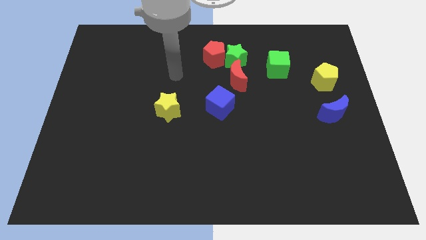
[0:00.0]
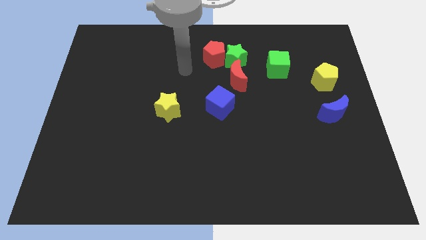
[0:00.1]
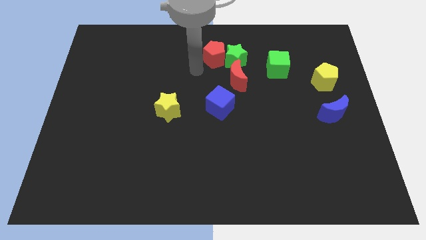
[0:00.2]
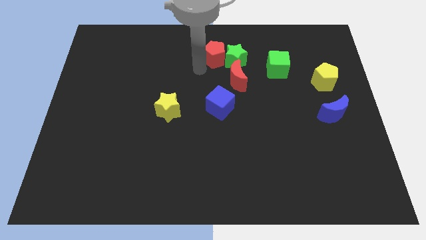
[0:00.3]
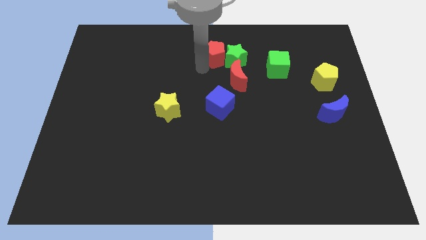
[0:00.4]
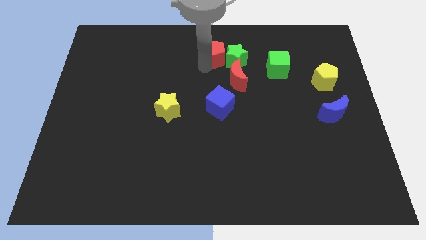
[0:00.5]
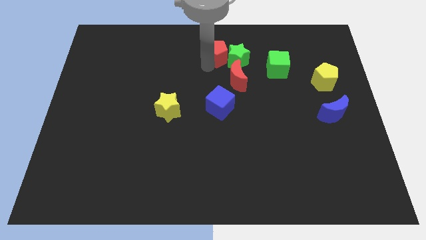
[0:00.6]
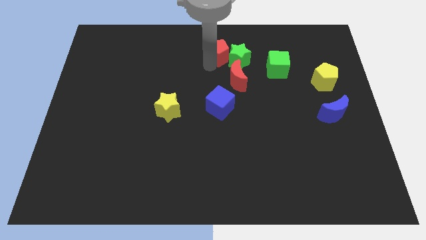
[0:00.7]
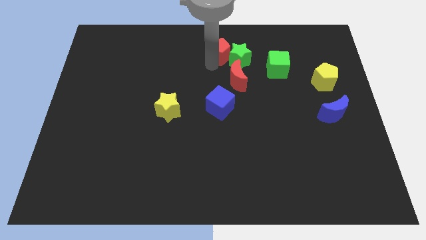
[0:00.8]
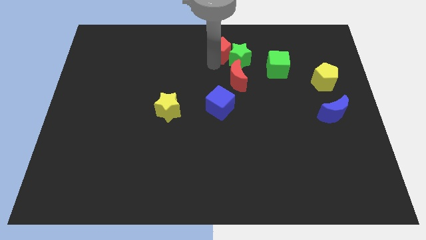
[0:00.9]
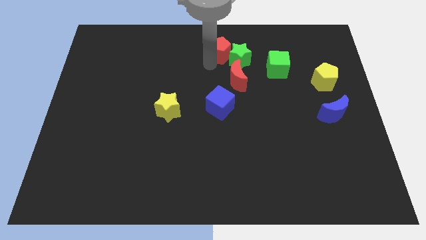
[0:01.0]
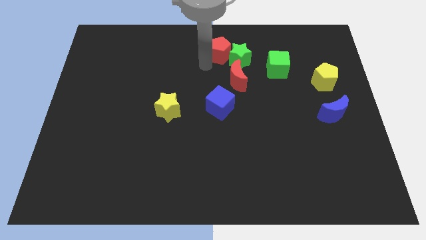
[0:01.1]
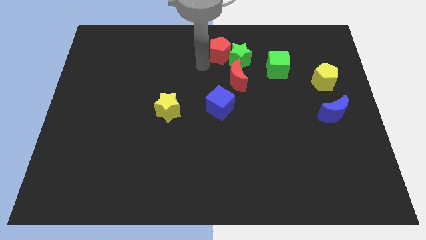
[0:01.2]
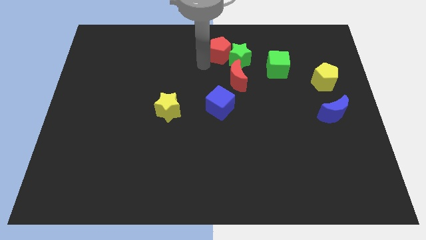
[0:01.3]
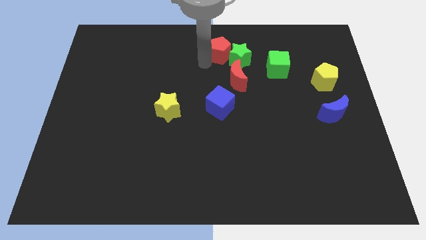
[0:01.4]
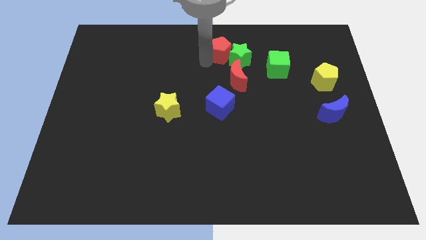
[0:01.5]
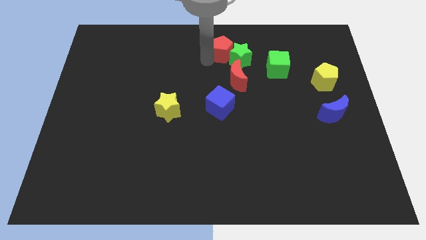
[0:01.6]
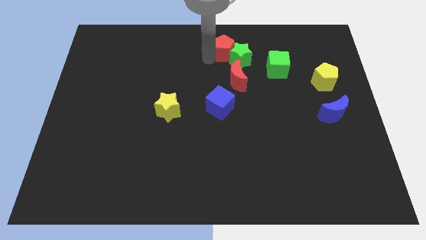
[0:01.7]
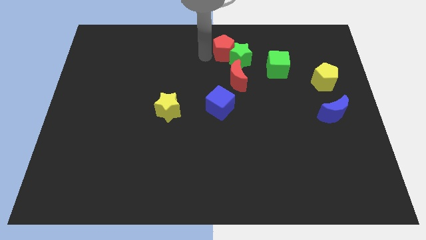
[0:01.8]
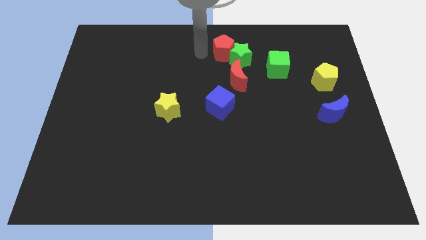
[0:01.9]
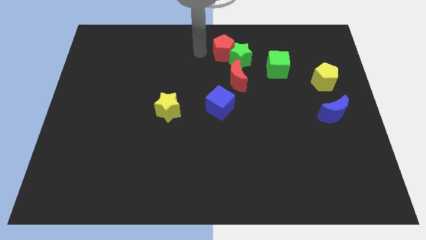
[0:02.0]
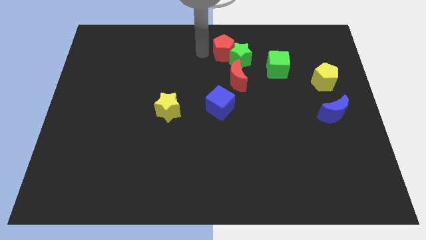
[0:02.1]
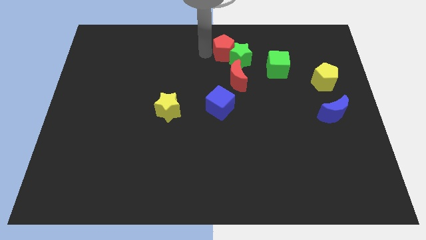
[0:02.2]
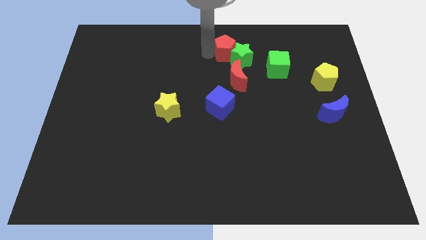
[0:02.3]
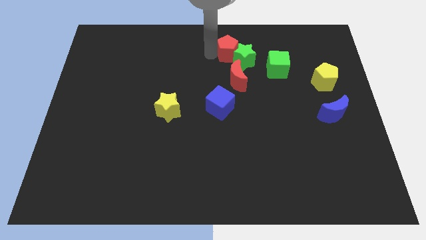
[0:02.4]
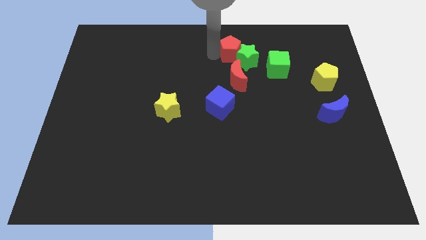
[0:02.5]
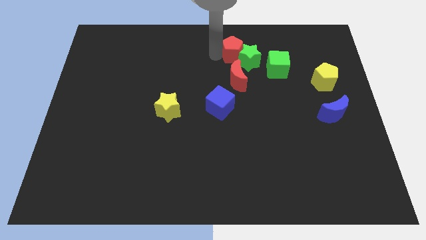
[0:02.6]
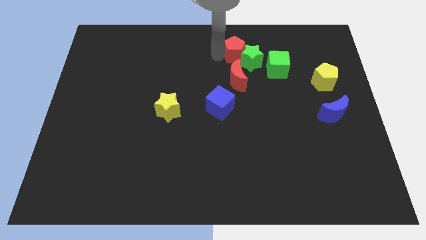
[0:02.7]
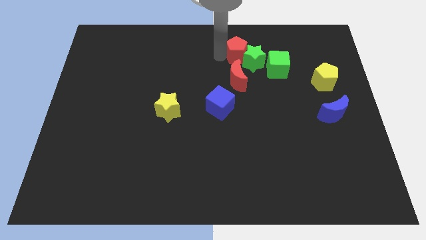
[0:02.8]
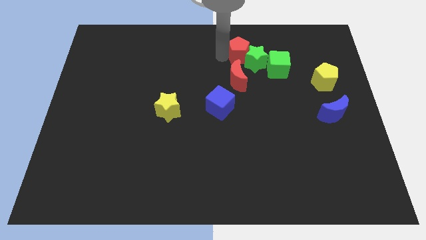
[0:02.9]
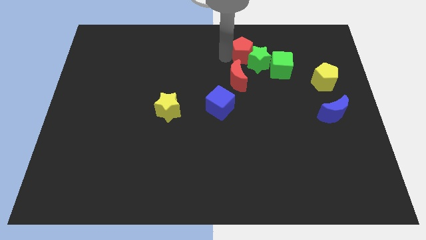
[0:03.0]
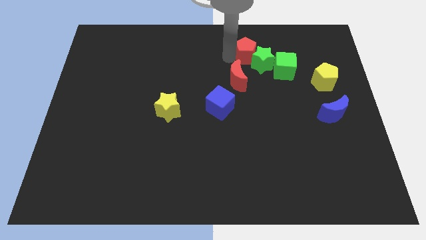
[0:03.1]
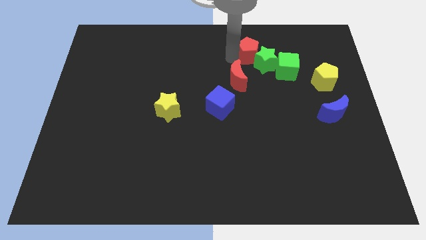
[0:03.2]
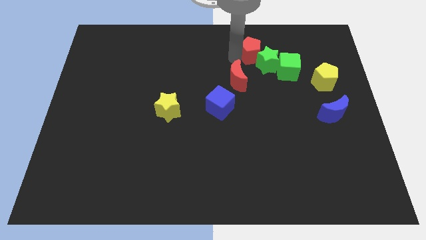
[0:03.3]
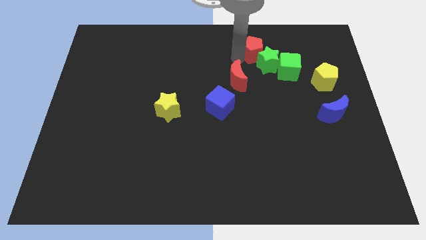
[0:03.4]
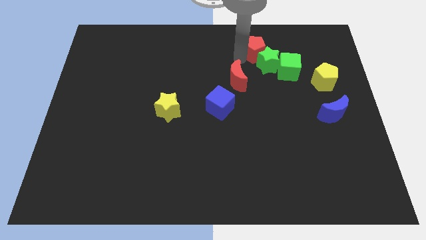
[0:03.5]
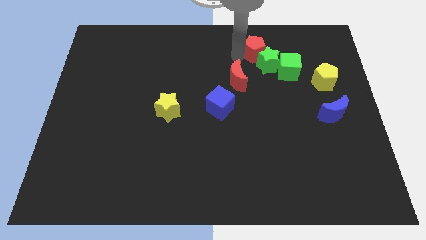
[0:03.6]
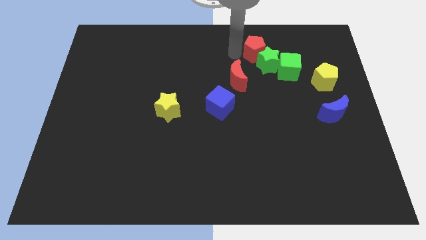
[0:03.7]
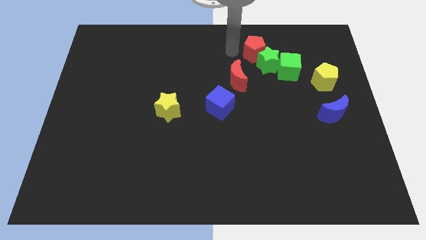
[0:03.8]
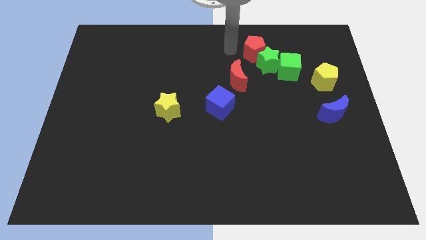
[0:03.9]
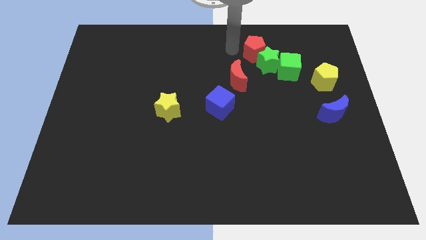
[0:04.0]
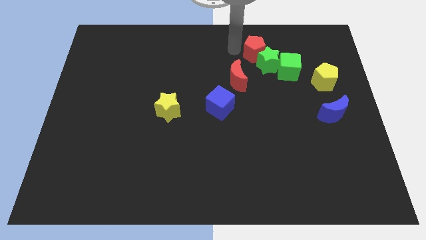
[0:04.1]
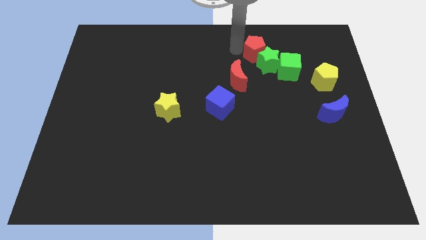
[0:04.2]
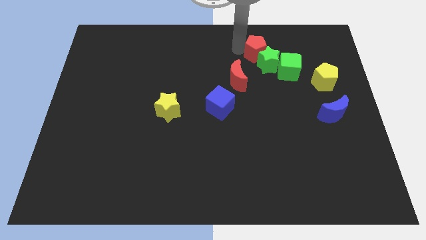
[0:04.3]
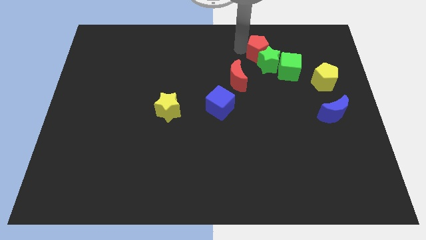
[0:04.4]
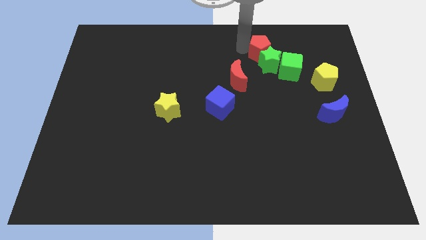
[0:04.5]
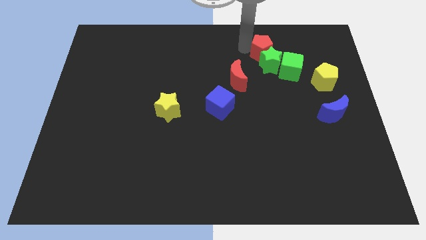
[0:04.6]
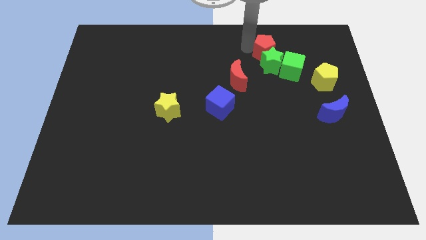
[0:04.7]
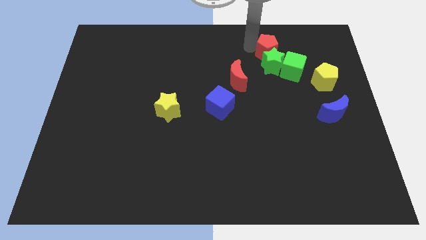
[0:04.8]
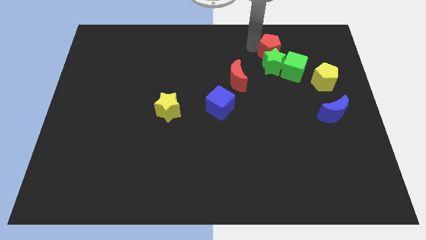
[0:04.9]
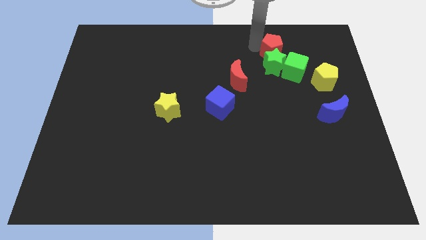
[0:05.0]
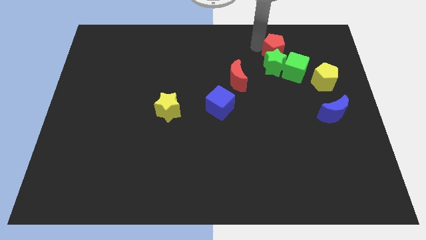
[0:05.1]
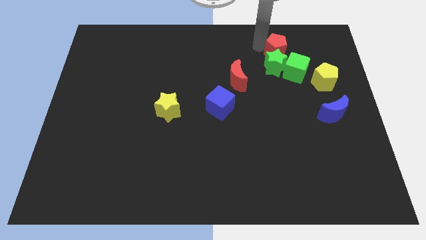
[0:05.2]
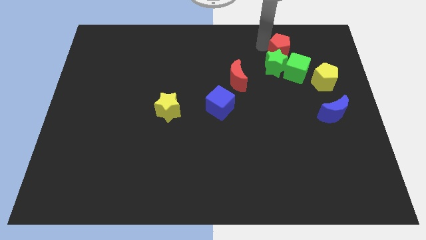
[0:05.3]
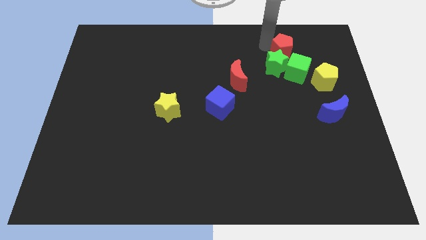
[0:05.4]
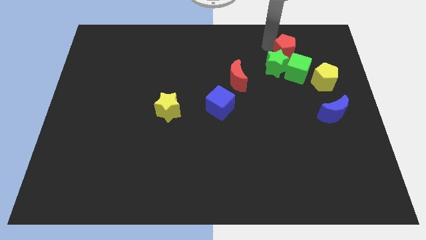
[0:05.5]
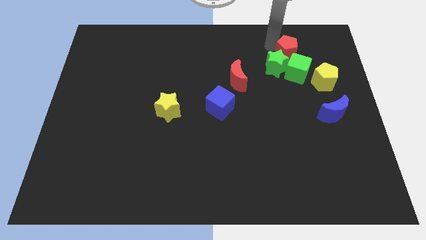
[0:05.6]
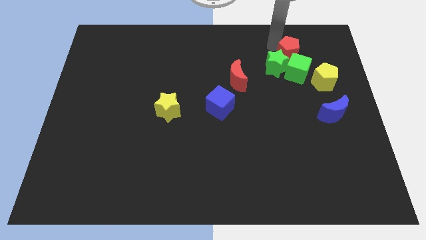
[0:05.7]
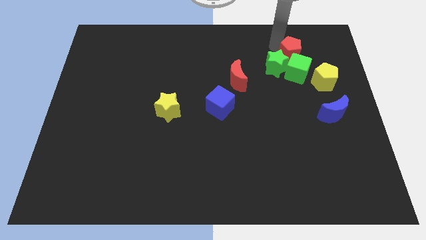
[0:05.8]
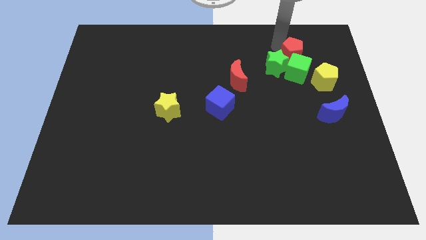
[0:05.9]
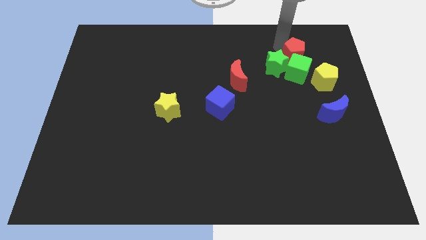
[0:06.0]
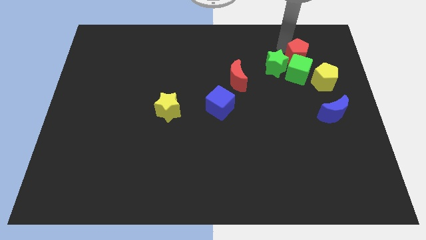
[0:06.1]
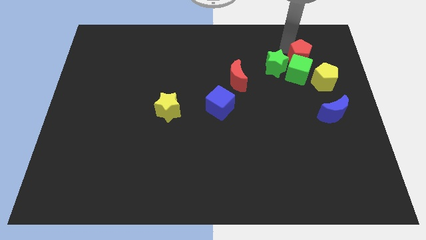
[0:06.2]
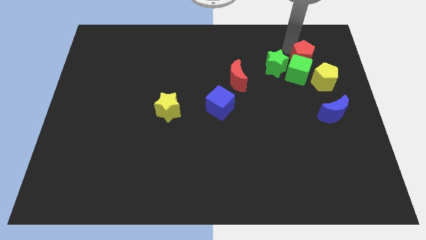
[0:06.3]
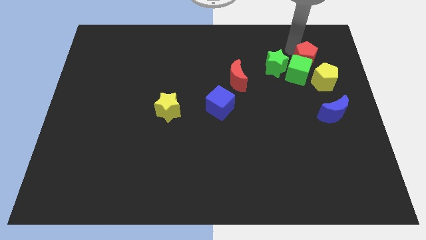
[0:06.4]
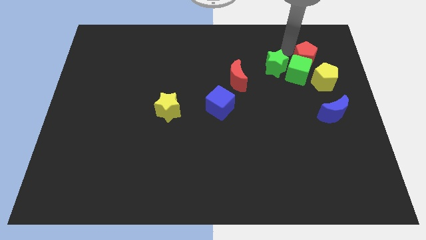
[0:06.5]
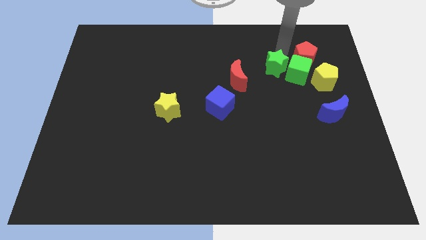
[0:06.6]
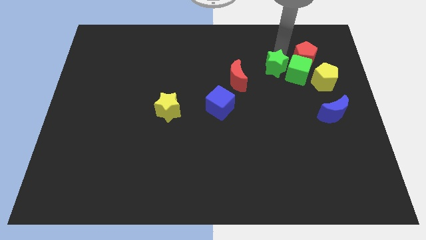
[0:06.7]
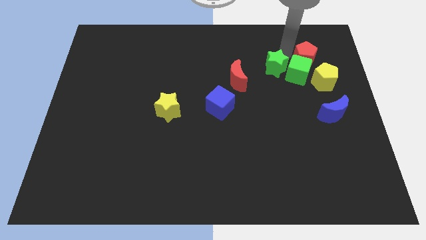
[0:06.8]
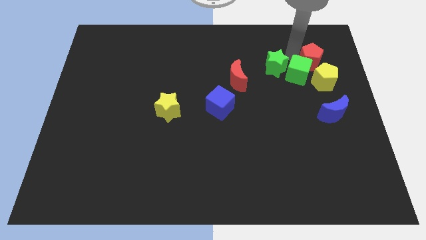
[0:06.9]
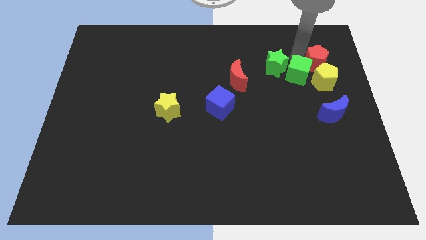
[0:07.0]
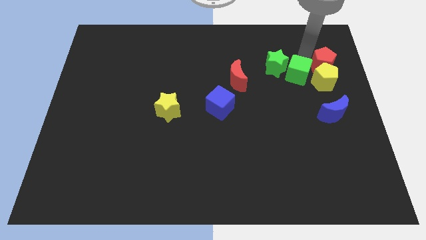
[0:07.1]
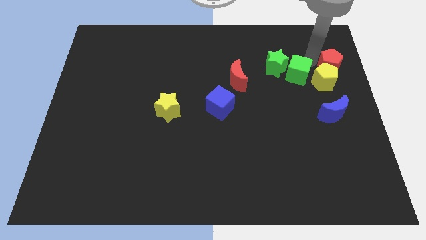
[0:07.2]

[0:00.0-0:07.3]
move the red pentagon to the center right

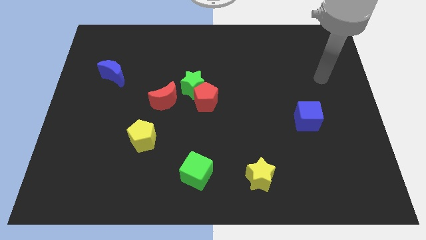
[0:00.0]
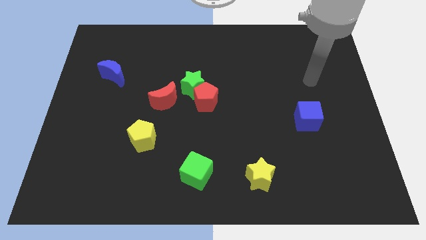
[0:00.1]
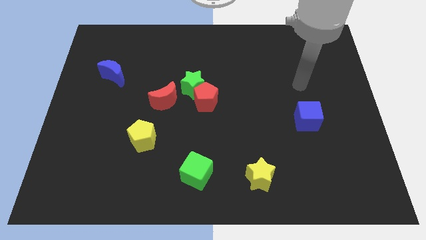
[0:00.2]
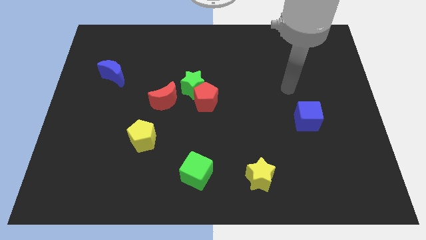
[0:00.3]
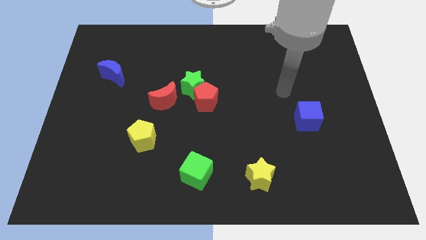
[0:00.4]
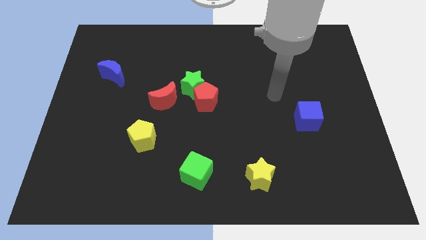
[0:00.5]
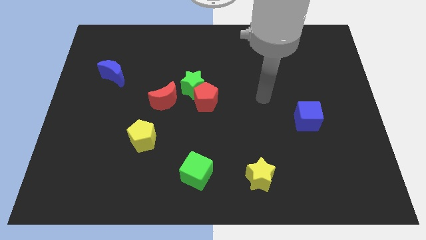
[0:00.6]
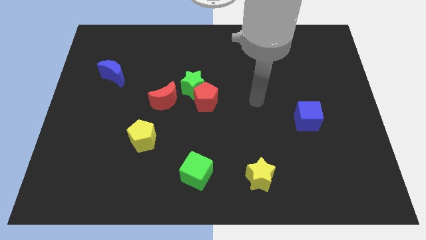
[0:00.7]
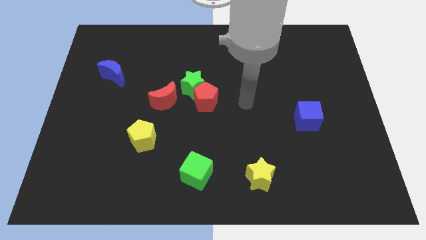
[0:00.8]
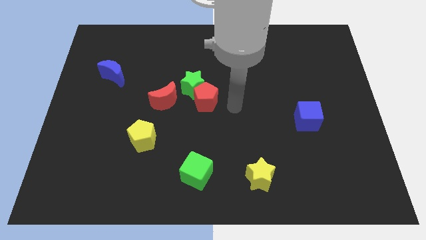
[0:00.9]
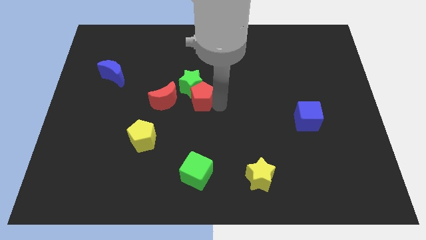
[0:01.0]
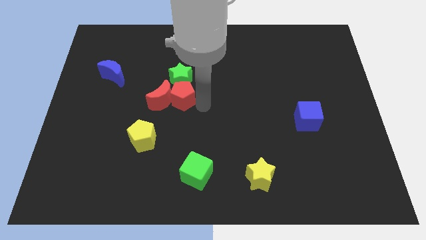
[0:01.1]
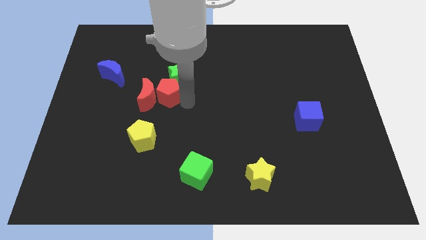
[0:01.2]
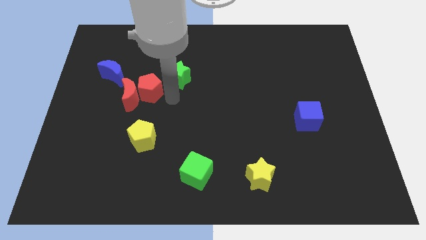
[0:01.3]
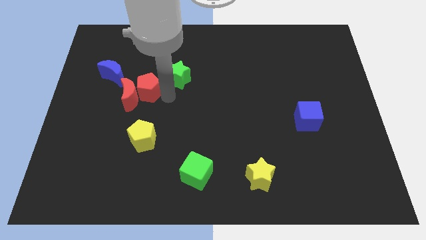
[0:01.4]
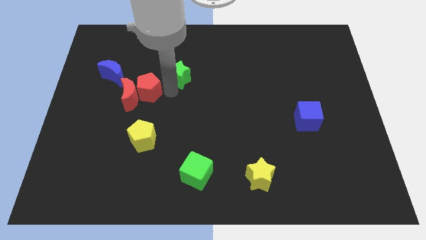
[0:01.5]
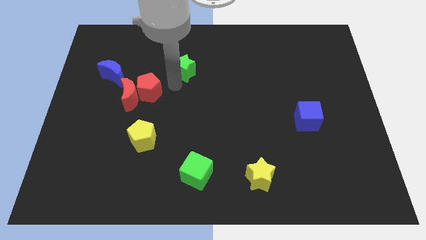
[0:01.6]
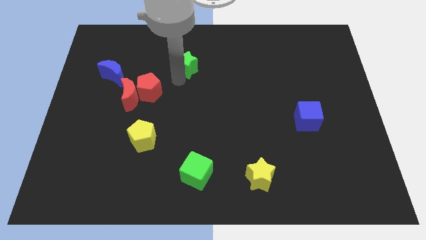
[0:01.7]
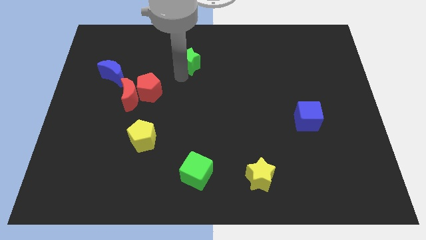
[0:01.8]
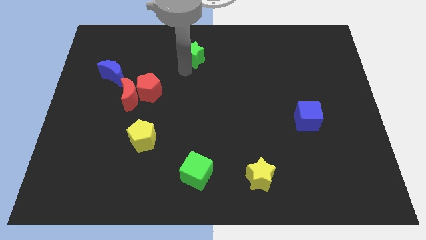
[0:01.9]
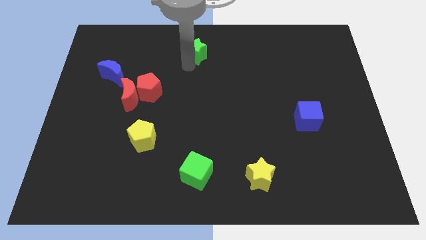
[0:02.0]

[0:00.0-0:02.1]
push the green star to the top side
